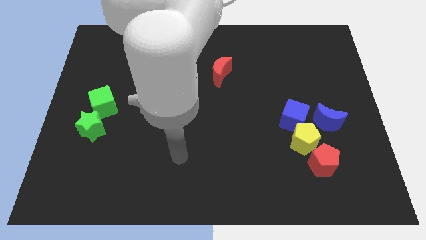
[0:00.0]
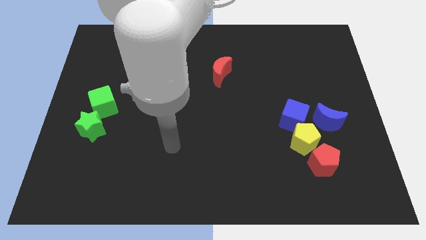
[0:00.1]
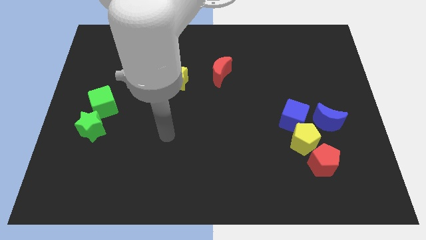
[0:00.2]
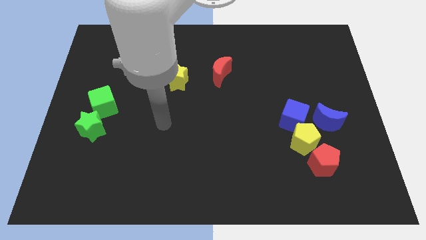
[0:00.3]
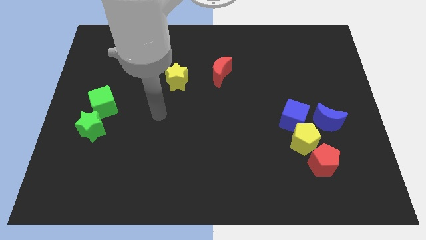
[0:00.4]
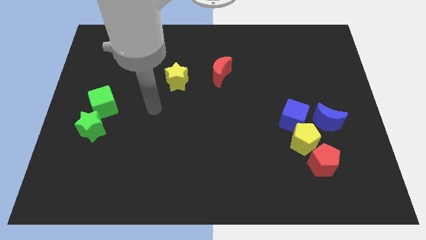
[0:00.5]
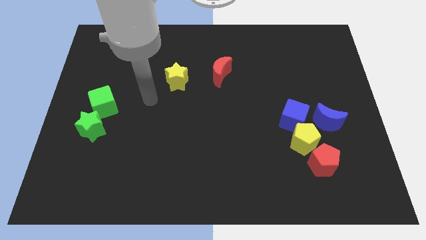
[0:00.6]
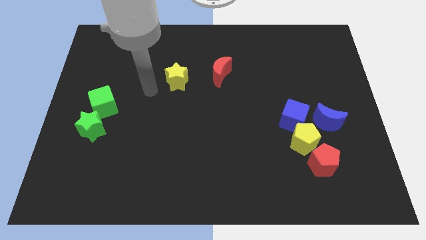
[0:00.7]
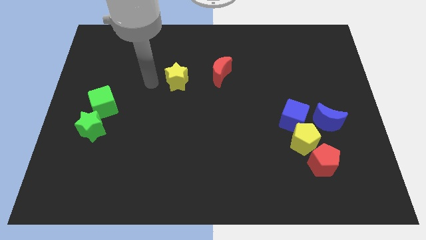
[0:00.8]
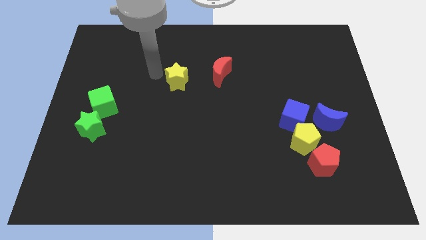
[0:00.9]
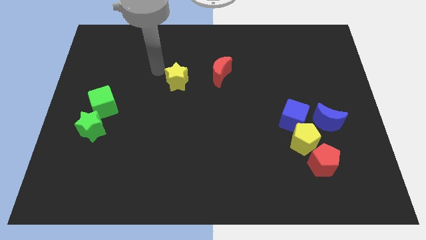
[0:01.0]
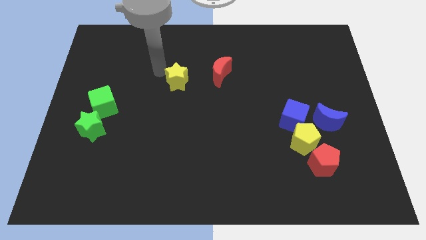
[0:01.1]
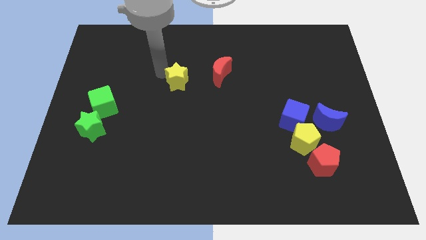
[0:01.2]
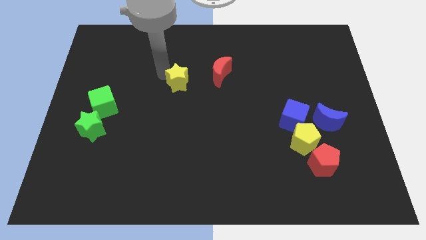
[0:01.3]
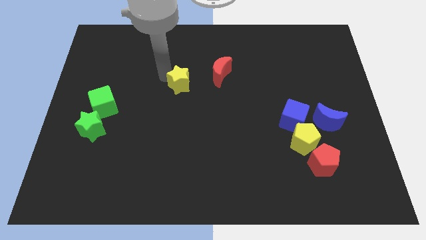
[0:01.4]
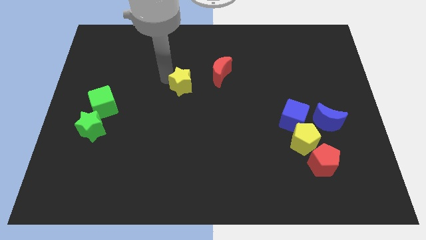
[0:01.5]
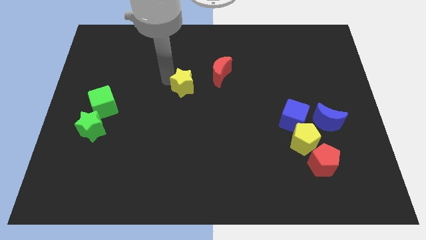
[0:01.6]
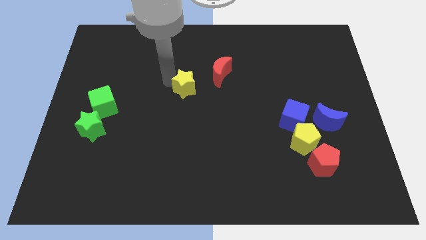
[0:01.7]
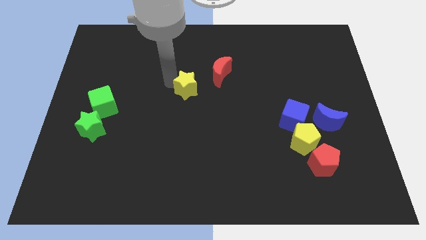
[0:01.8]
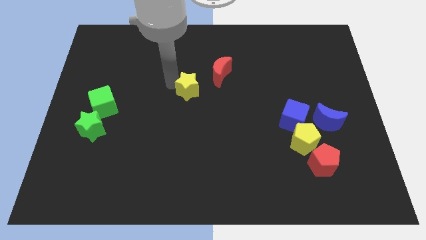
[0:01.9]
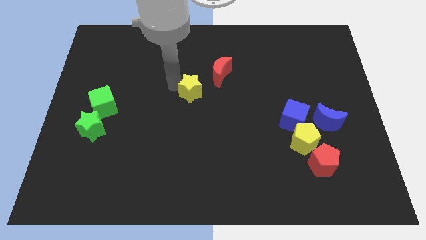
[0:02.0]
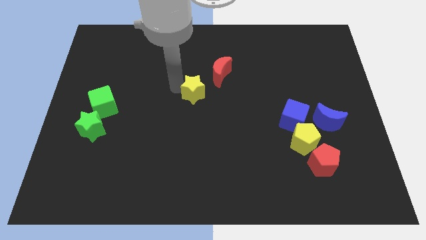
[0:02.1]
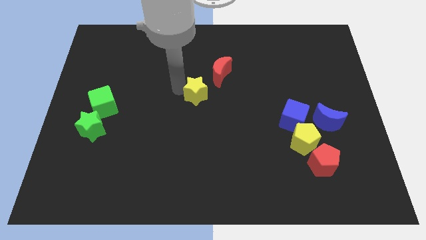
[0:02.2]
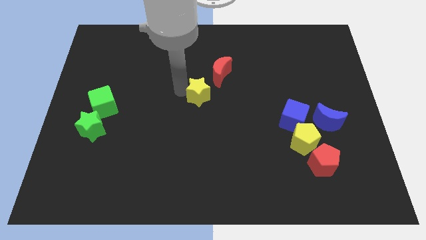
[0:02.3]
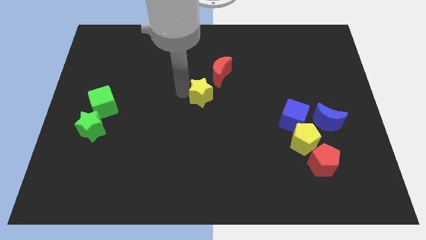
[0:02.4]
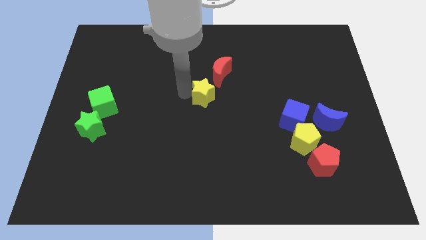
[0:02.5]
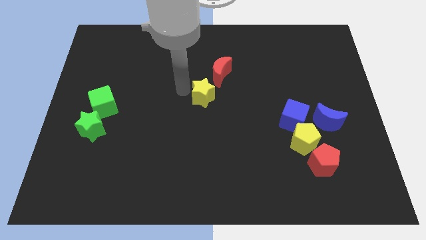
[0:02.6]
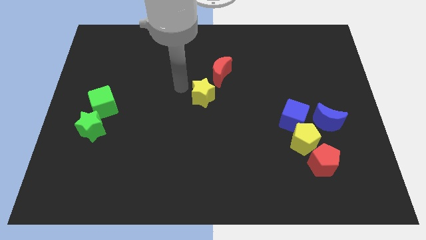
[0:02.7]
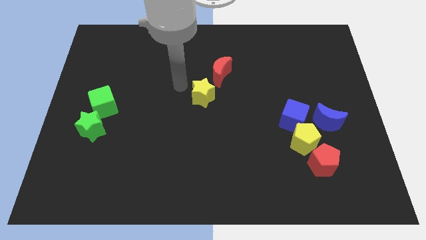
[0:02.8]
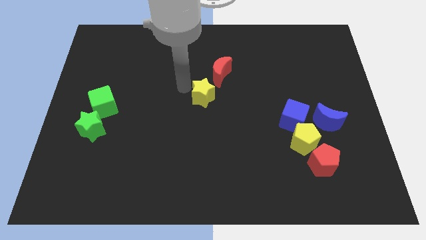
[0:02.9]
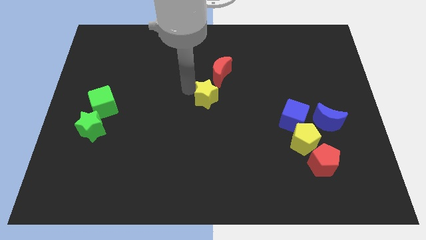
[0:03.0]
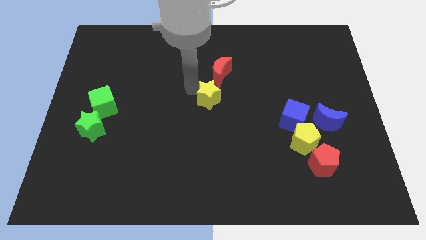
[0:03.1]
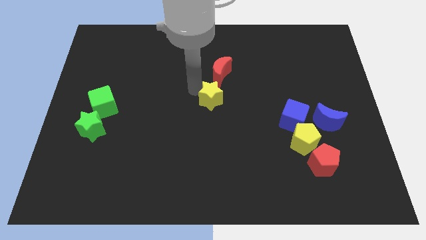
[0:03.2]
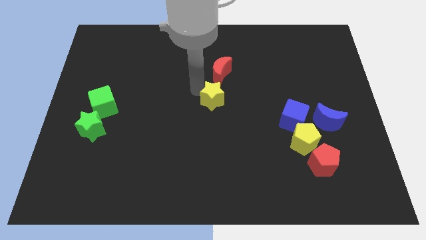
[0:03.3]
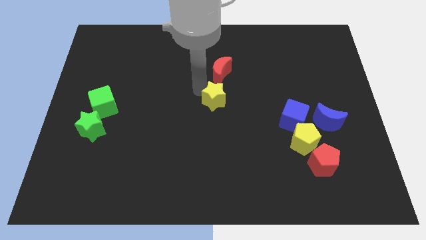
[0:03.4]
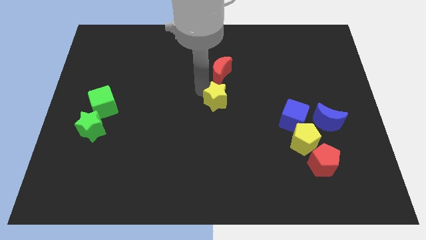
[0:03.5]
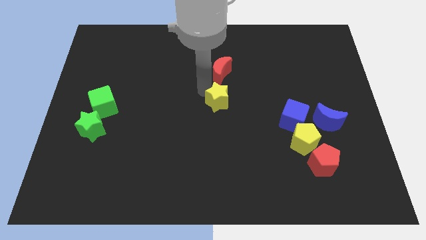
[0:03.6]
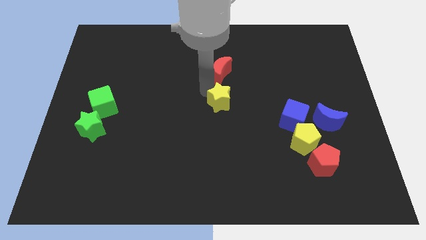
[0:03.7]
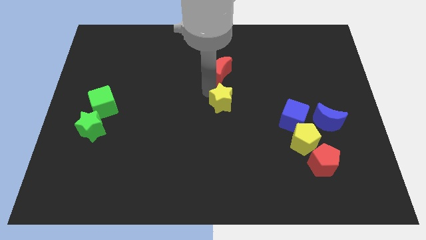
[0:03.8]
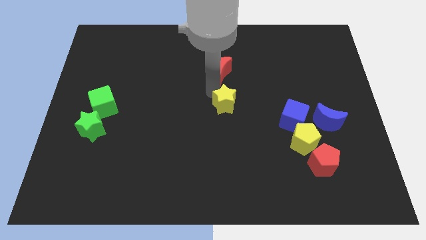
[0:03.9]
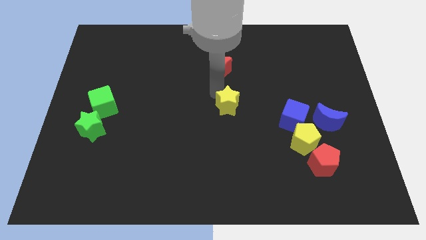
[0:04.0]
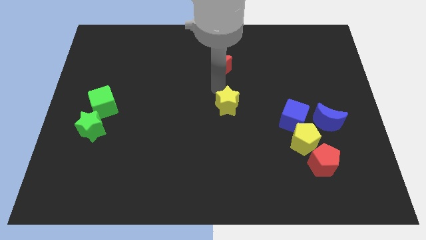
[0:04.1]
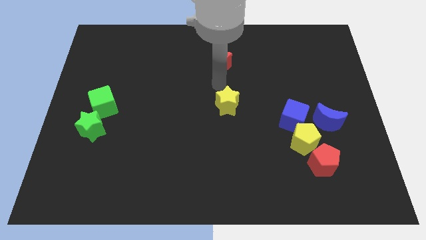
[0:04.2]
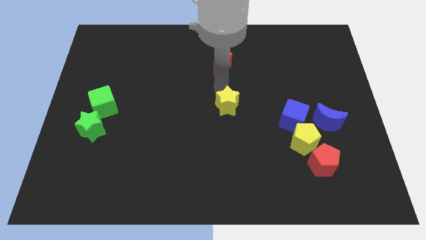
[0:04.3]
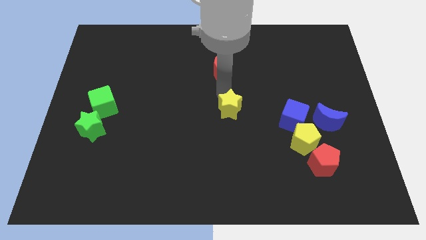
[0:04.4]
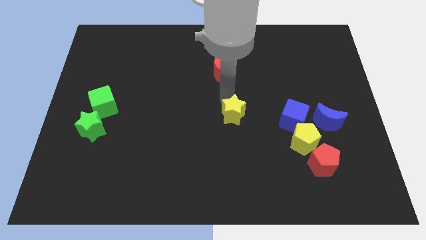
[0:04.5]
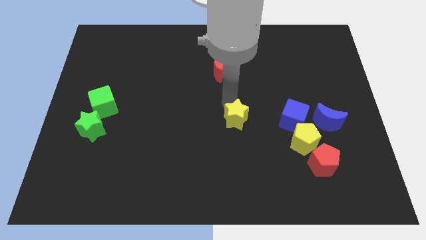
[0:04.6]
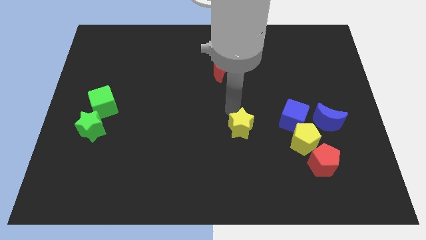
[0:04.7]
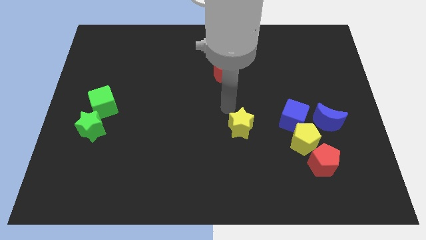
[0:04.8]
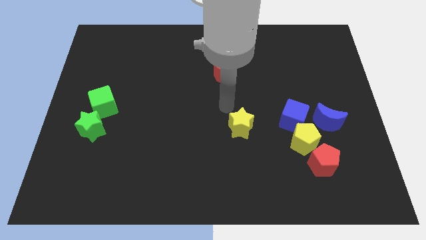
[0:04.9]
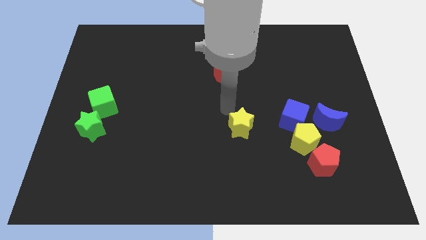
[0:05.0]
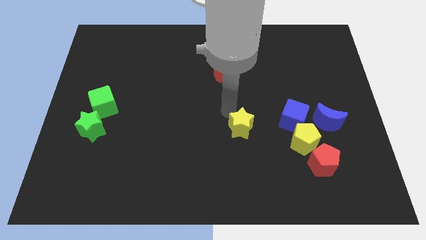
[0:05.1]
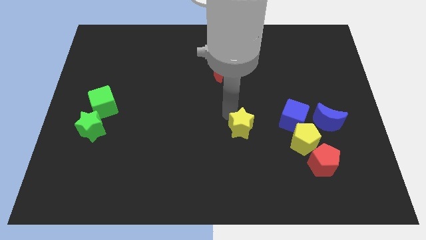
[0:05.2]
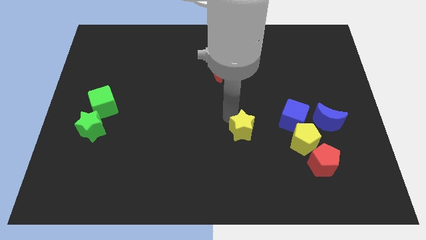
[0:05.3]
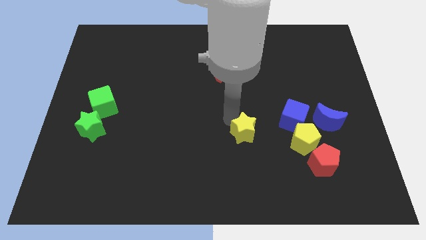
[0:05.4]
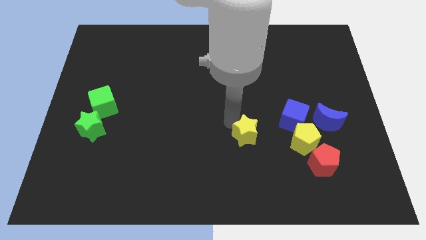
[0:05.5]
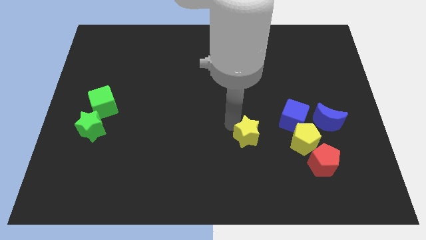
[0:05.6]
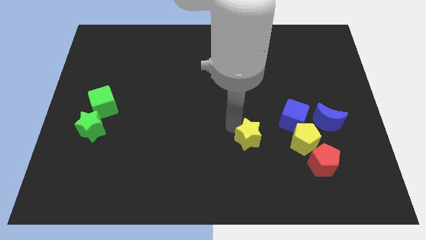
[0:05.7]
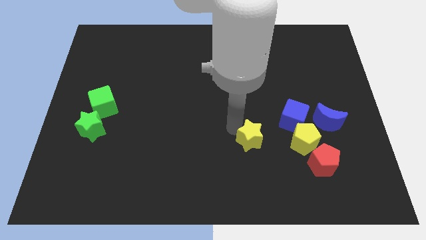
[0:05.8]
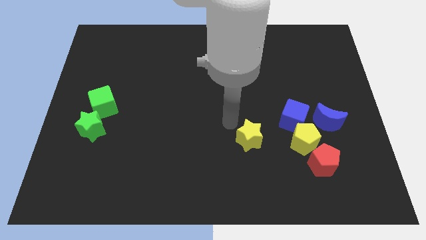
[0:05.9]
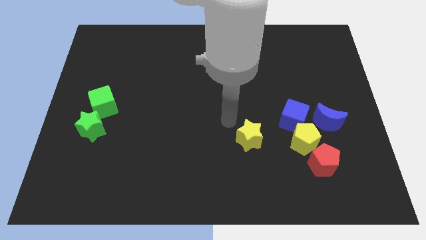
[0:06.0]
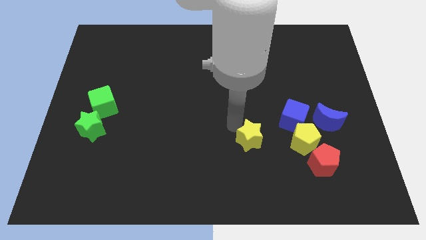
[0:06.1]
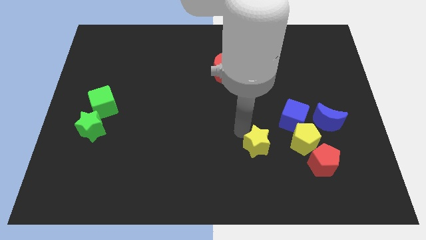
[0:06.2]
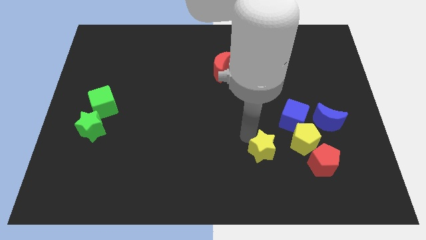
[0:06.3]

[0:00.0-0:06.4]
slide the yellow star diagonally down and to the left of the yellow pentagon

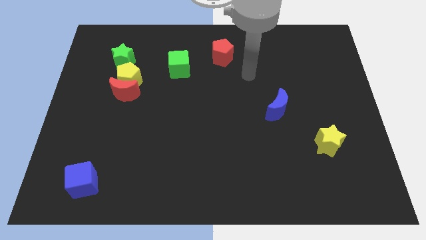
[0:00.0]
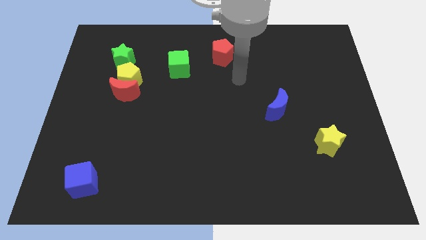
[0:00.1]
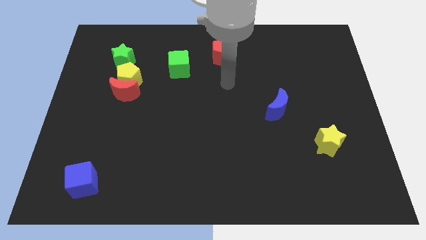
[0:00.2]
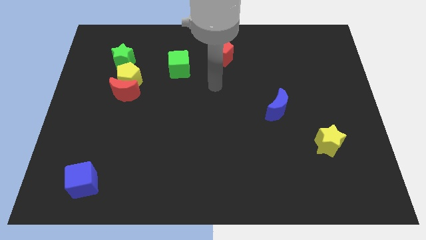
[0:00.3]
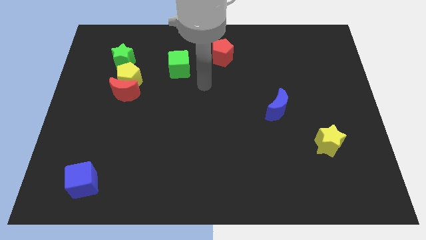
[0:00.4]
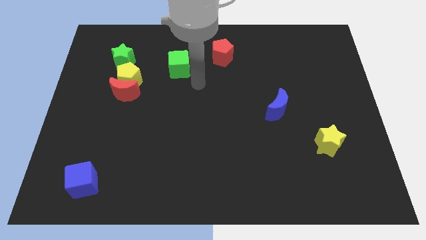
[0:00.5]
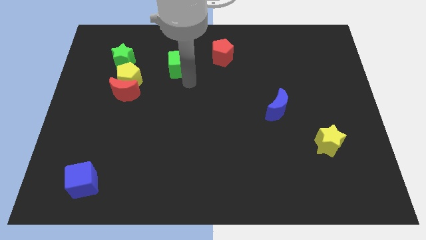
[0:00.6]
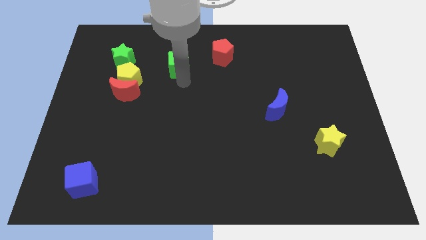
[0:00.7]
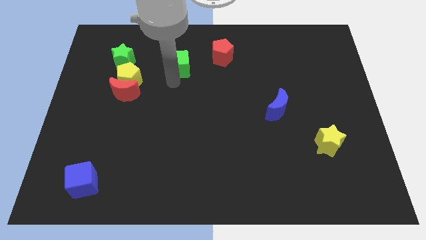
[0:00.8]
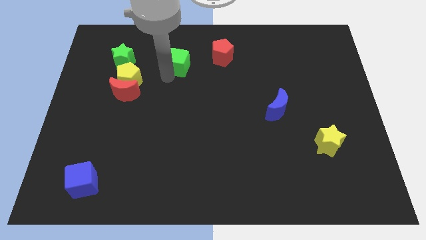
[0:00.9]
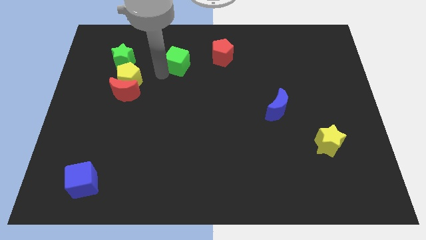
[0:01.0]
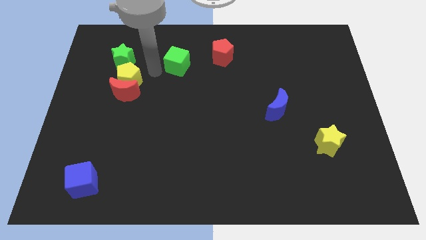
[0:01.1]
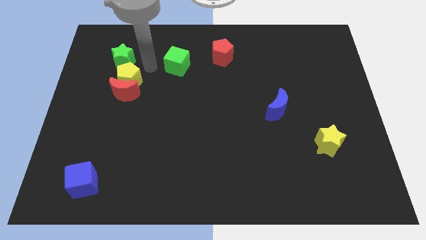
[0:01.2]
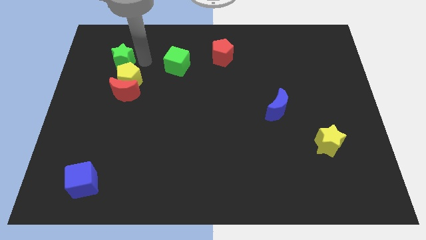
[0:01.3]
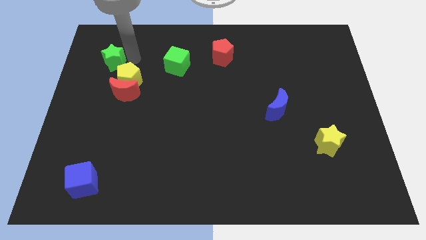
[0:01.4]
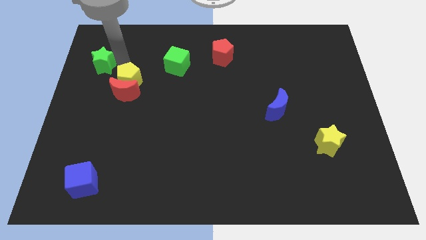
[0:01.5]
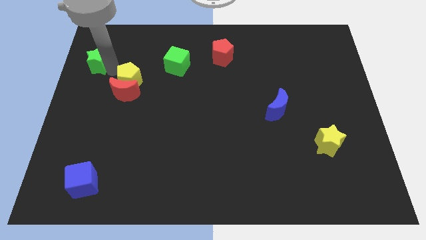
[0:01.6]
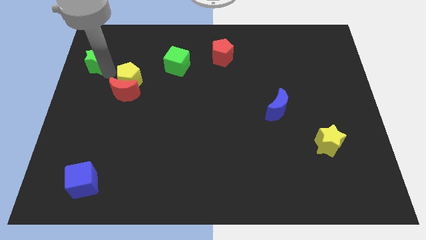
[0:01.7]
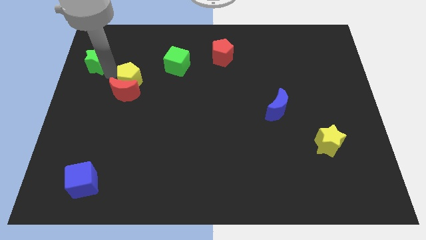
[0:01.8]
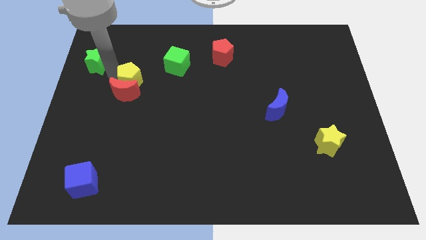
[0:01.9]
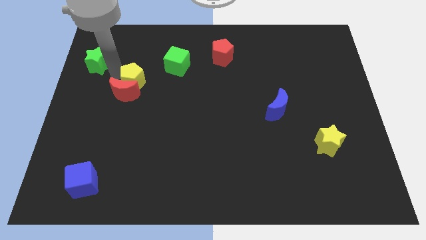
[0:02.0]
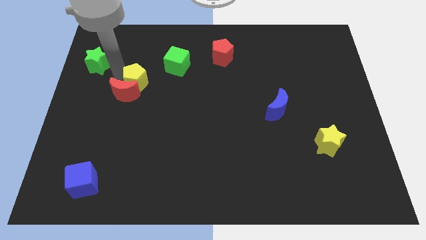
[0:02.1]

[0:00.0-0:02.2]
slide the yellow pentagon just right of the red moon
